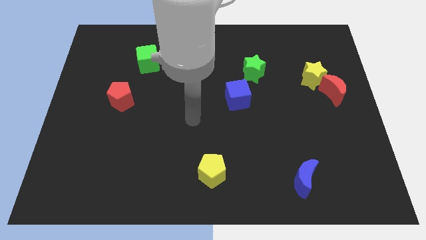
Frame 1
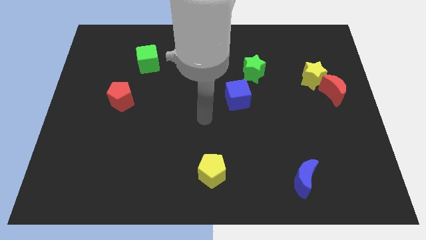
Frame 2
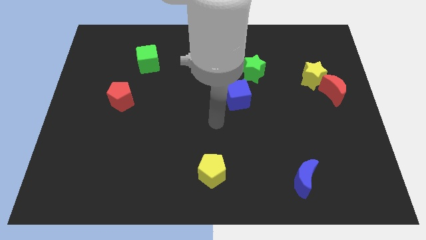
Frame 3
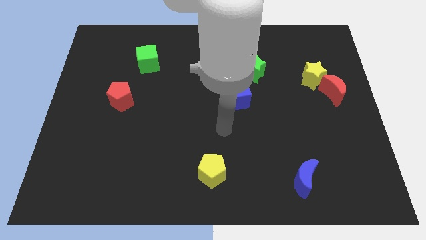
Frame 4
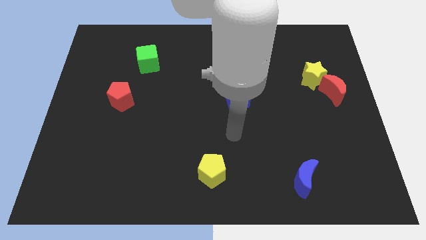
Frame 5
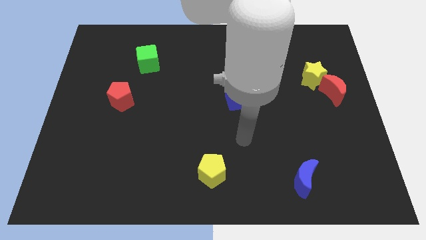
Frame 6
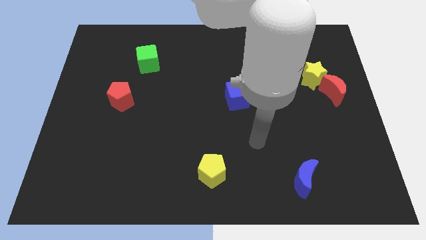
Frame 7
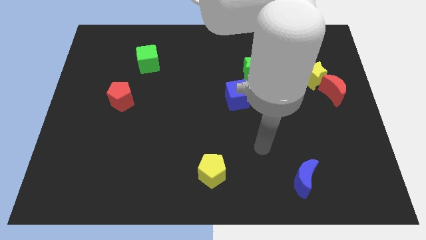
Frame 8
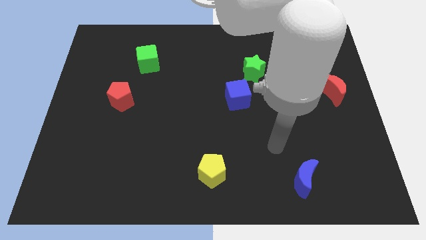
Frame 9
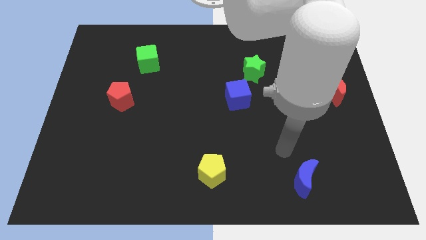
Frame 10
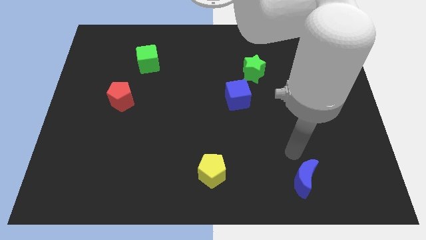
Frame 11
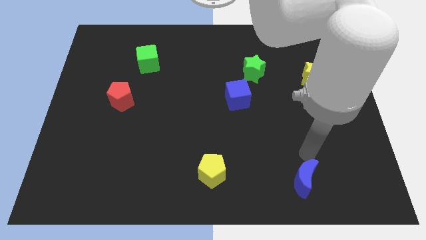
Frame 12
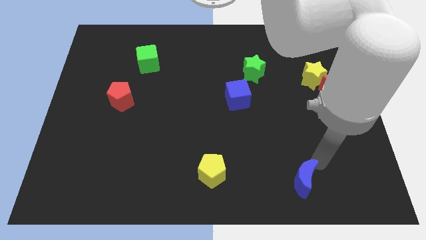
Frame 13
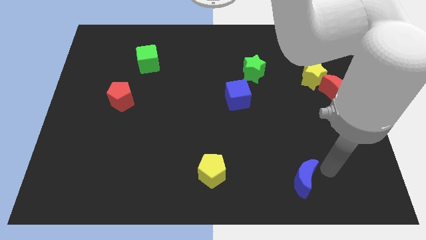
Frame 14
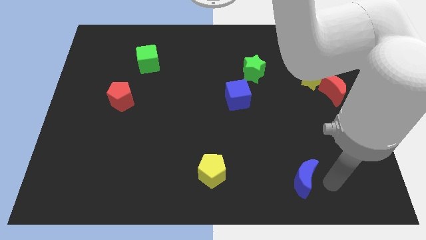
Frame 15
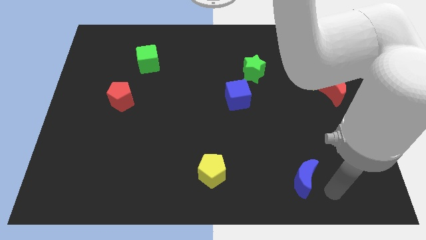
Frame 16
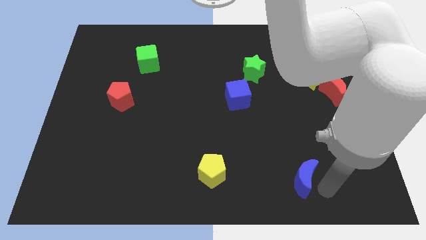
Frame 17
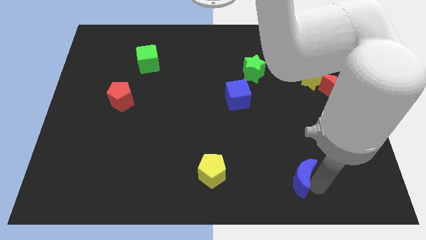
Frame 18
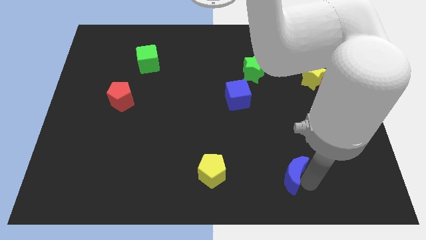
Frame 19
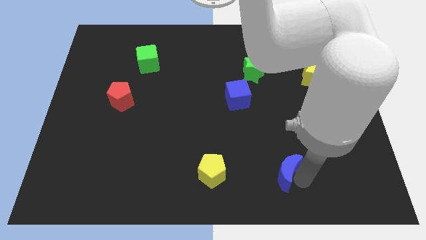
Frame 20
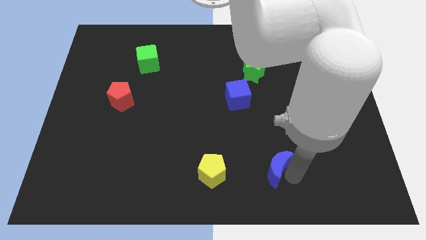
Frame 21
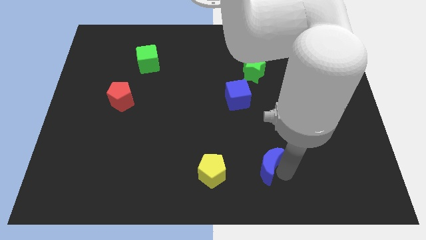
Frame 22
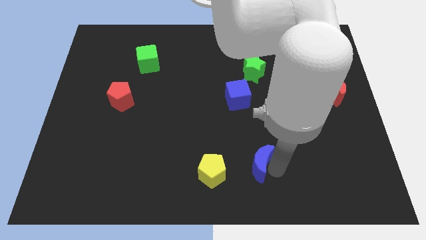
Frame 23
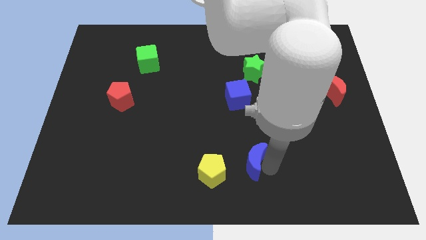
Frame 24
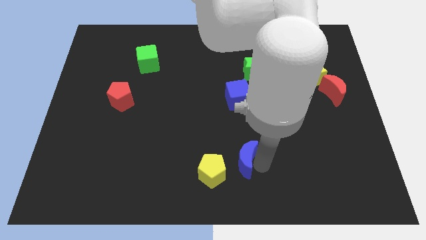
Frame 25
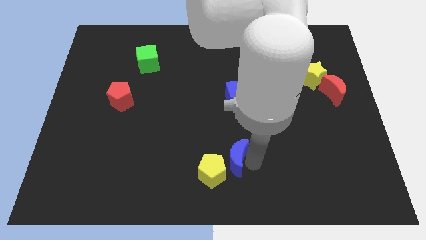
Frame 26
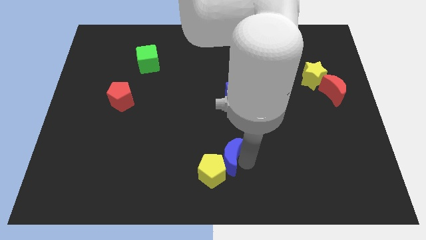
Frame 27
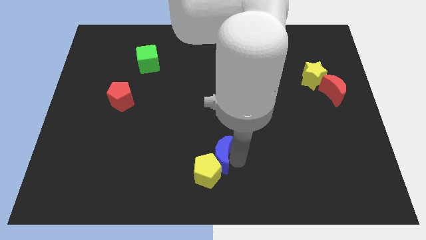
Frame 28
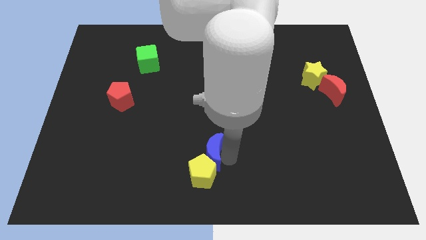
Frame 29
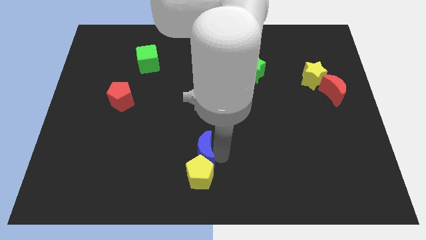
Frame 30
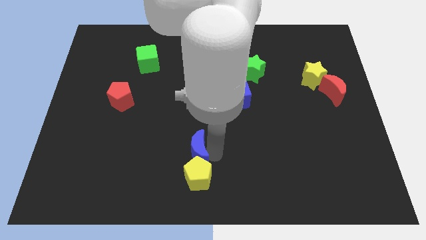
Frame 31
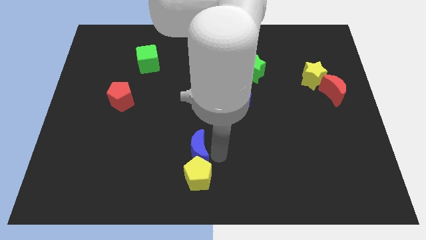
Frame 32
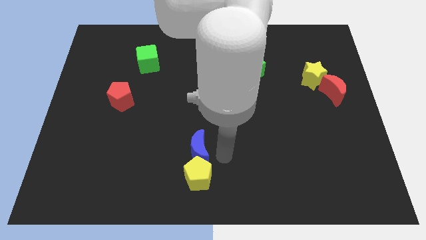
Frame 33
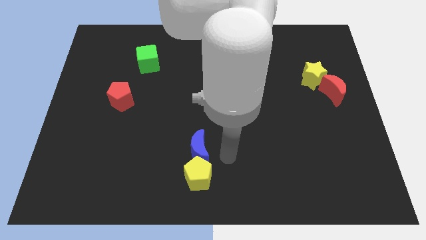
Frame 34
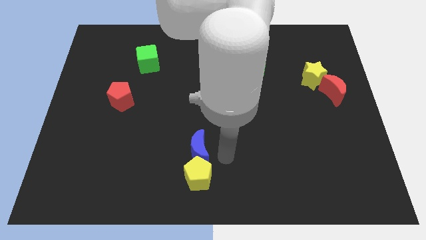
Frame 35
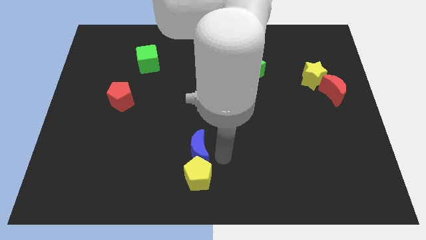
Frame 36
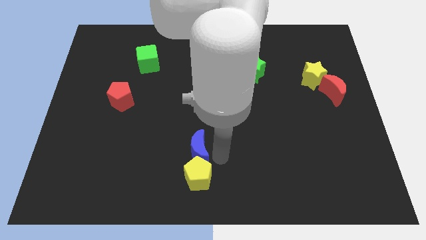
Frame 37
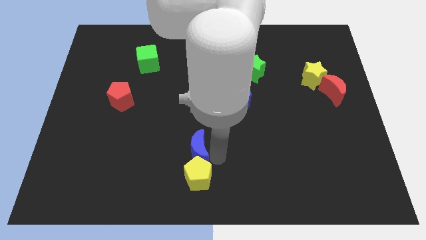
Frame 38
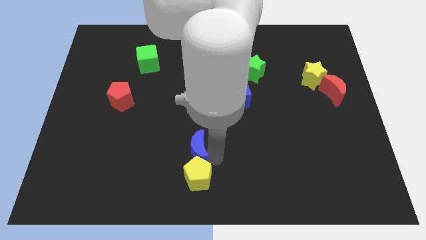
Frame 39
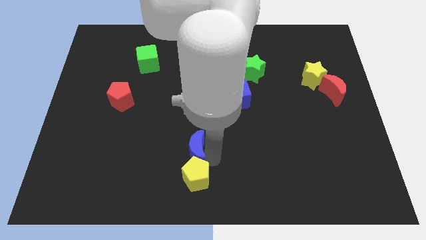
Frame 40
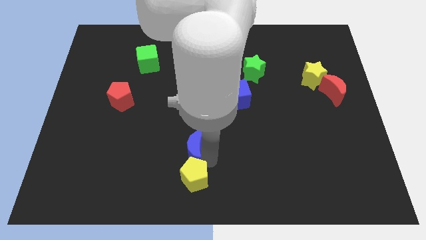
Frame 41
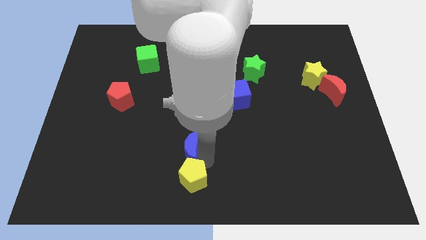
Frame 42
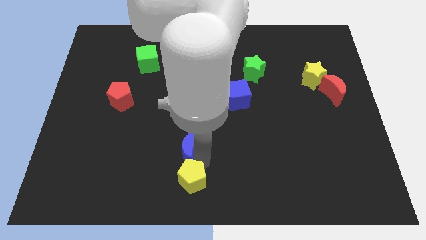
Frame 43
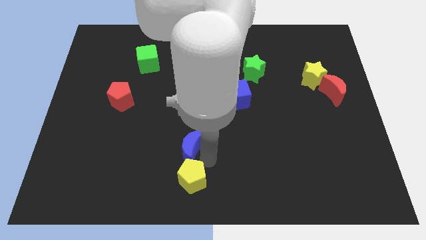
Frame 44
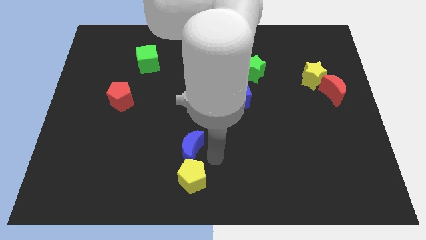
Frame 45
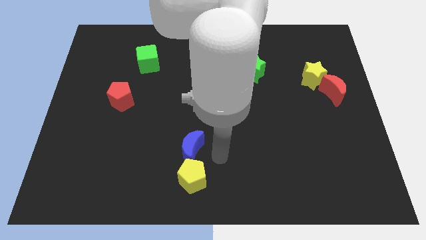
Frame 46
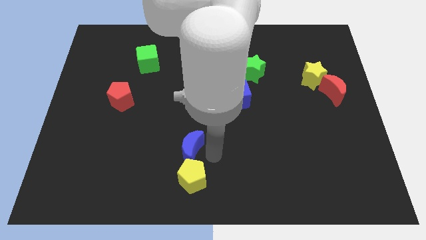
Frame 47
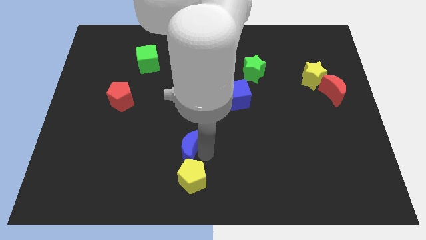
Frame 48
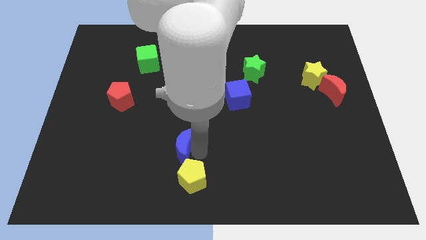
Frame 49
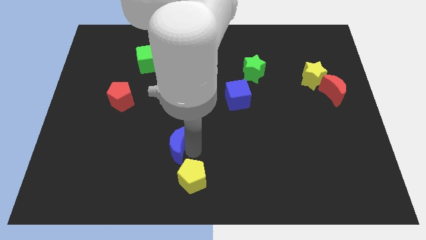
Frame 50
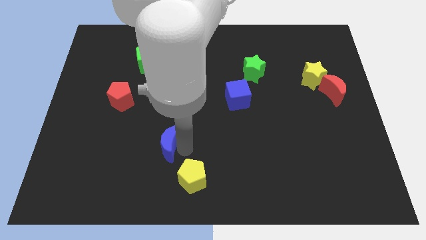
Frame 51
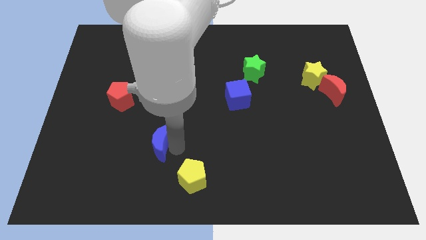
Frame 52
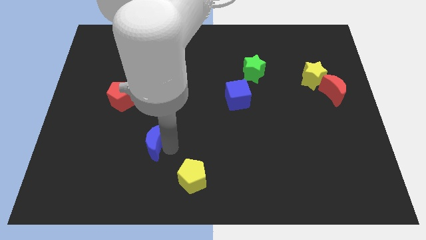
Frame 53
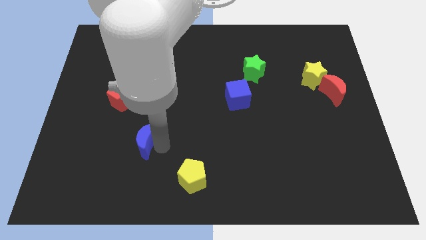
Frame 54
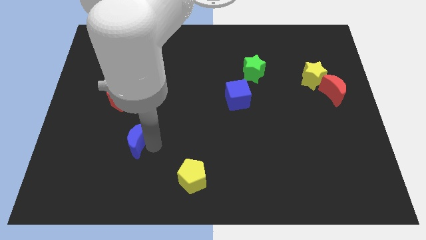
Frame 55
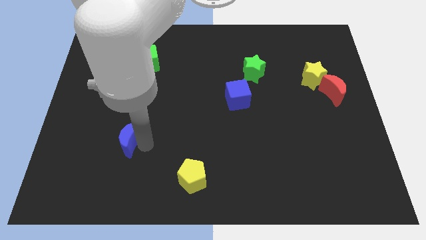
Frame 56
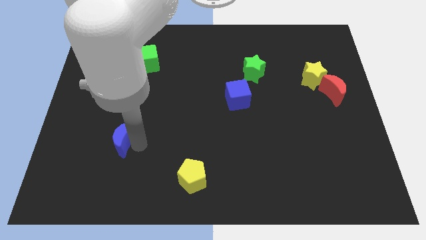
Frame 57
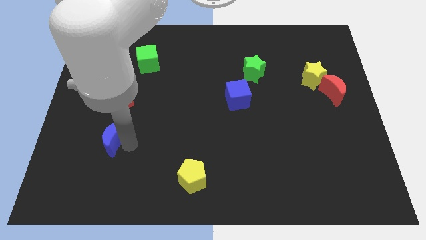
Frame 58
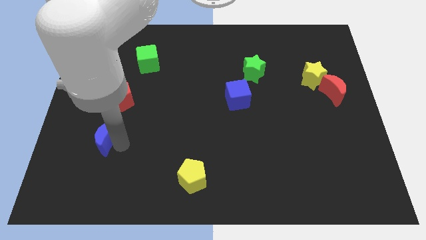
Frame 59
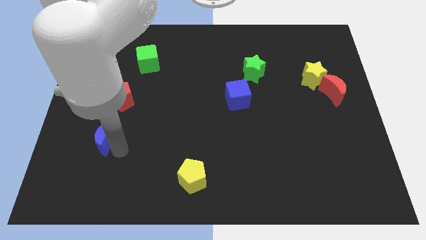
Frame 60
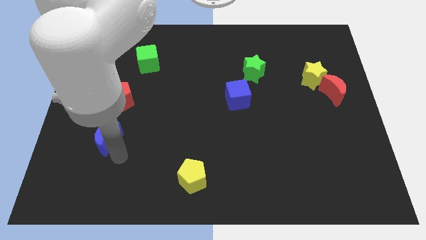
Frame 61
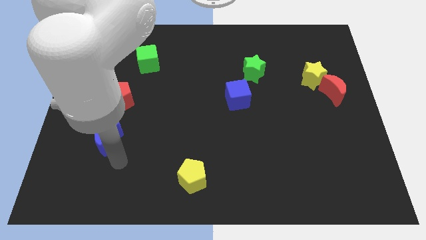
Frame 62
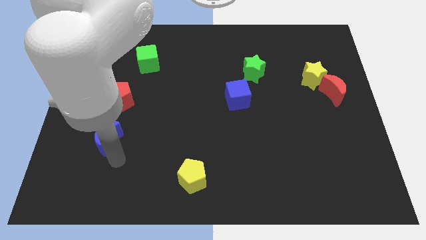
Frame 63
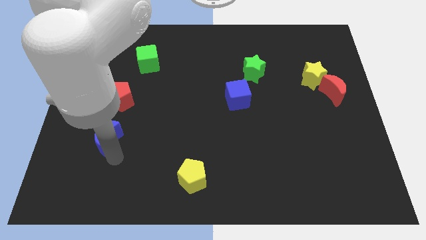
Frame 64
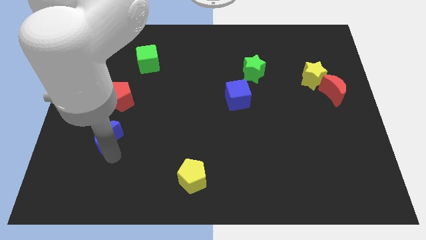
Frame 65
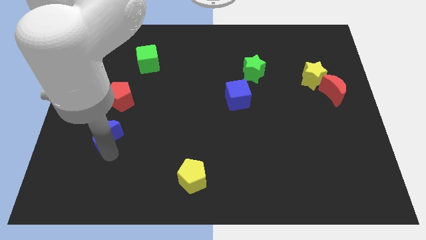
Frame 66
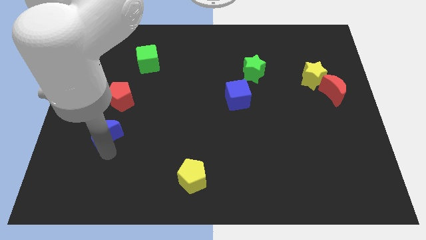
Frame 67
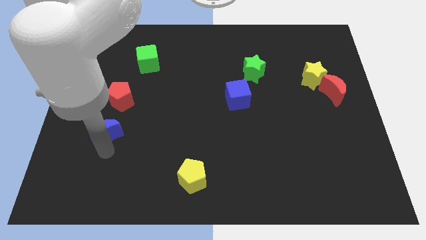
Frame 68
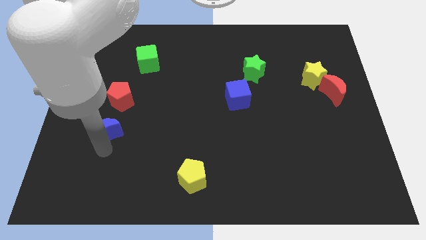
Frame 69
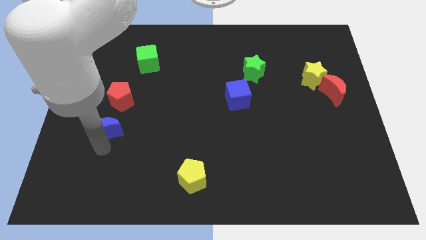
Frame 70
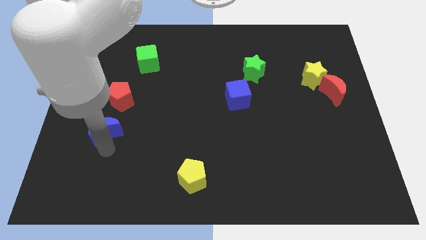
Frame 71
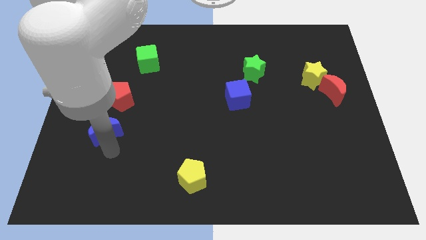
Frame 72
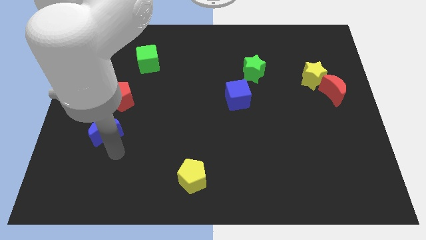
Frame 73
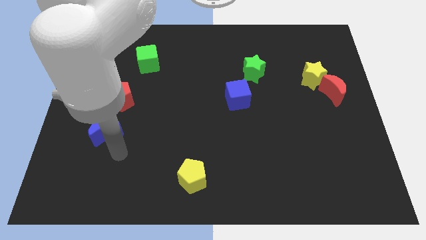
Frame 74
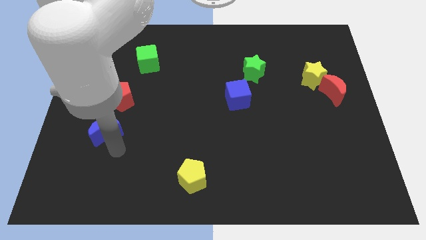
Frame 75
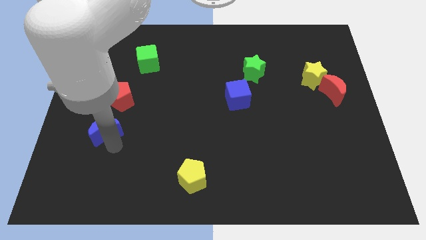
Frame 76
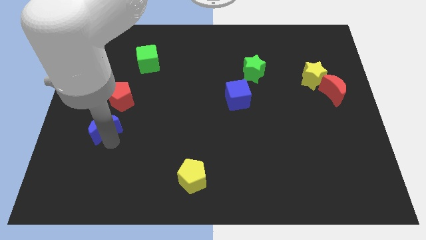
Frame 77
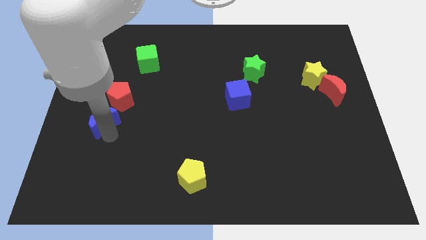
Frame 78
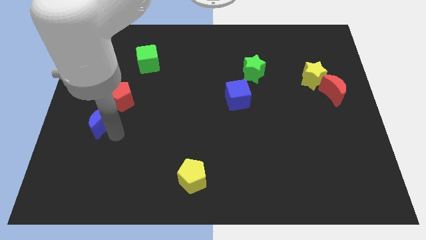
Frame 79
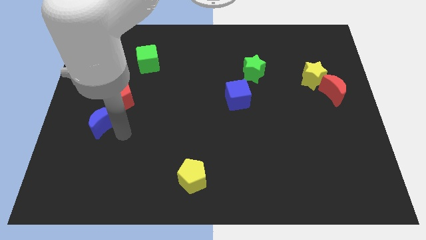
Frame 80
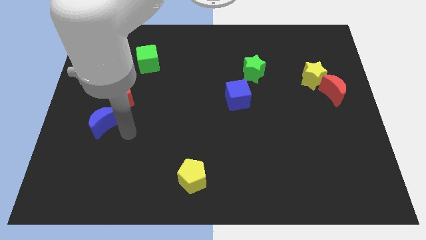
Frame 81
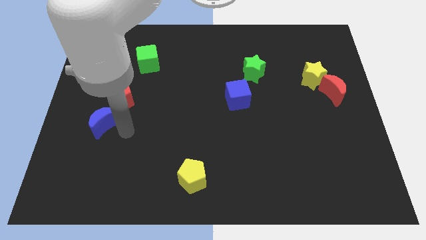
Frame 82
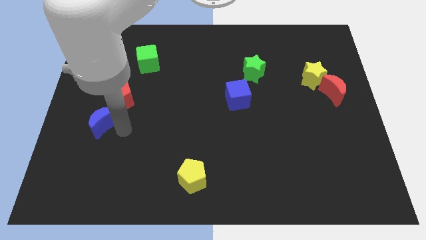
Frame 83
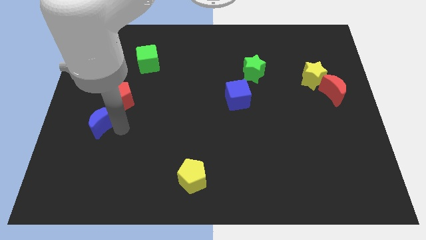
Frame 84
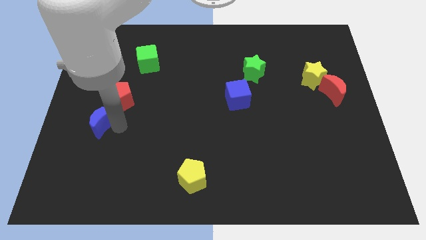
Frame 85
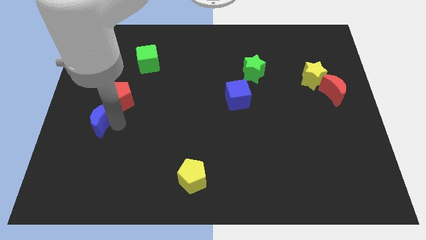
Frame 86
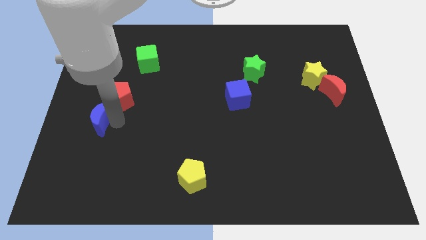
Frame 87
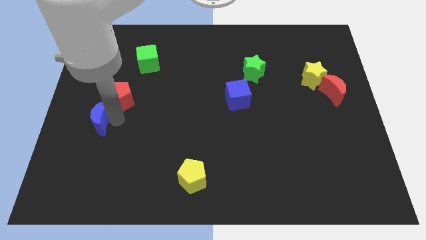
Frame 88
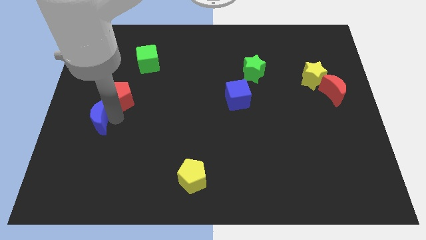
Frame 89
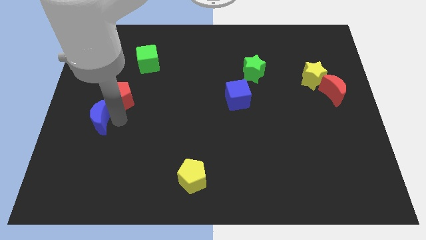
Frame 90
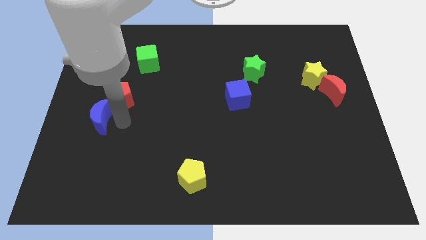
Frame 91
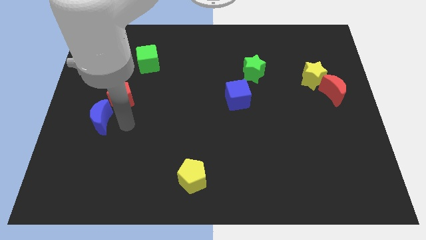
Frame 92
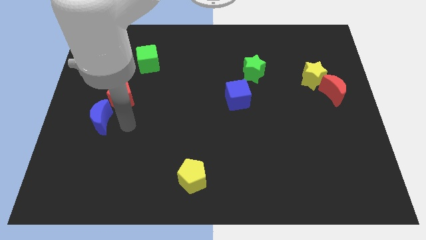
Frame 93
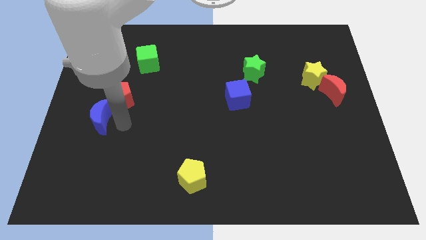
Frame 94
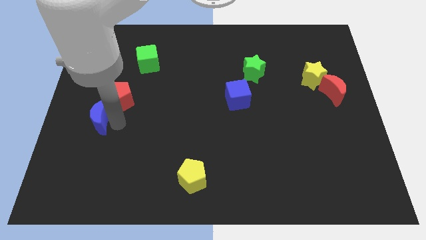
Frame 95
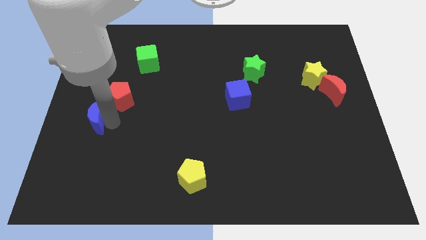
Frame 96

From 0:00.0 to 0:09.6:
slide the blue moon to the left side
